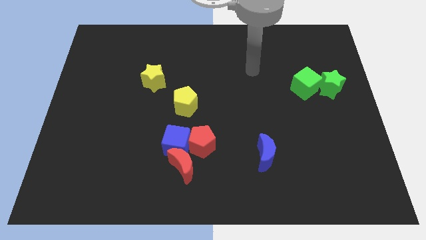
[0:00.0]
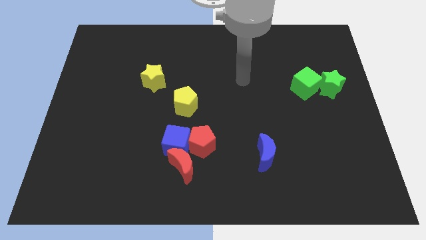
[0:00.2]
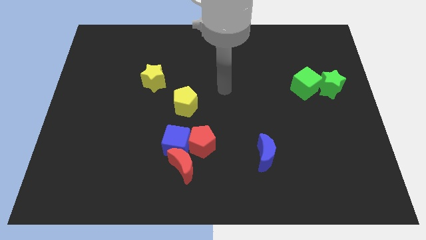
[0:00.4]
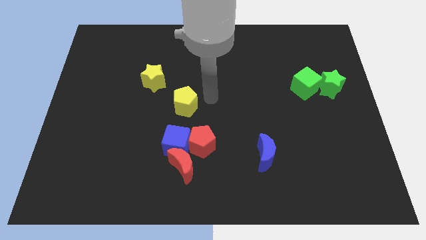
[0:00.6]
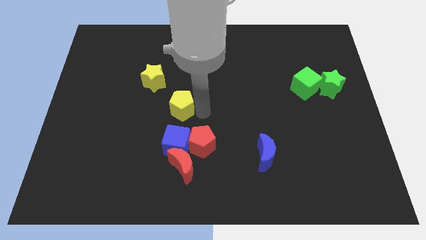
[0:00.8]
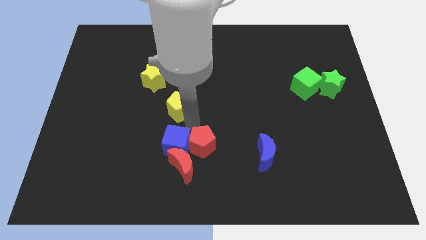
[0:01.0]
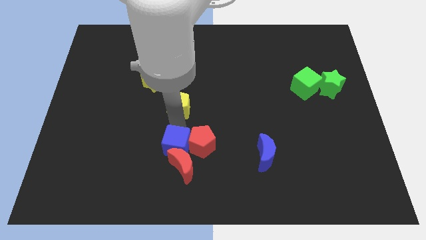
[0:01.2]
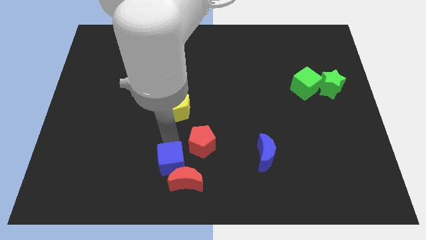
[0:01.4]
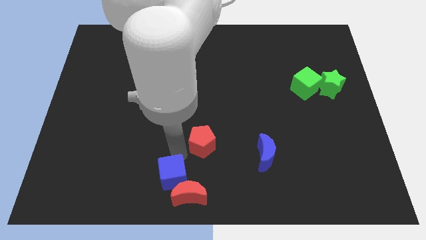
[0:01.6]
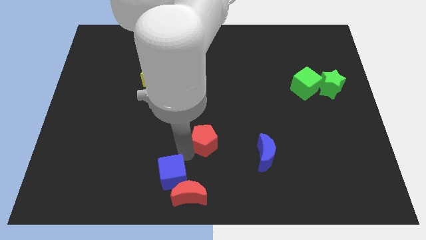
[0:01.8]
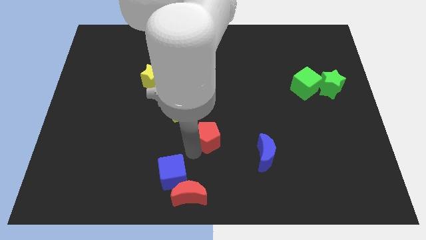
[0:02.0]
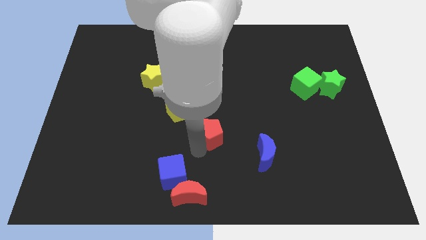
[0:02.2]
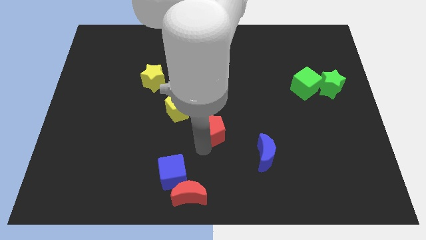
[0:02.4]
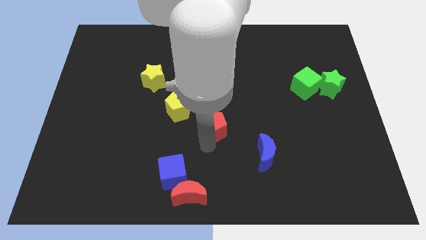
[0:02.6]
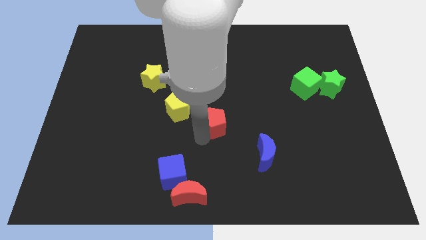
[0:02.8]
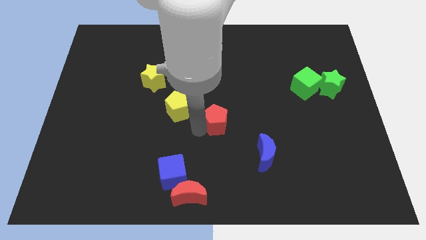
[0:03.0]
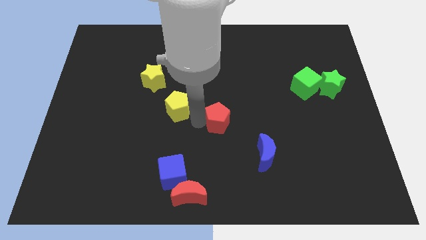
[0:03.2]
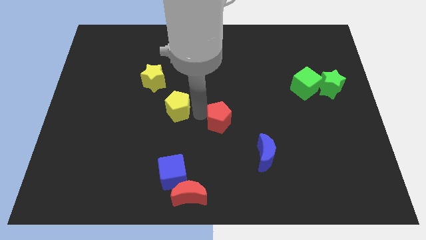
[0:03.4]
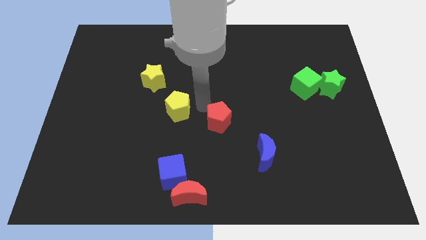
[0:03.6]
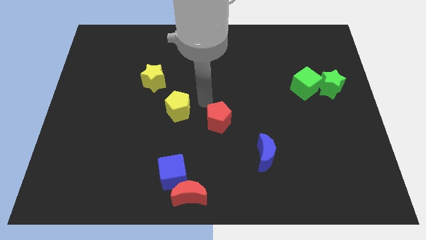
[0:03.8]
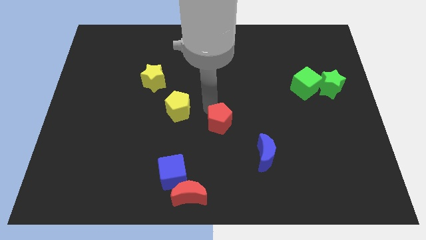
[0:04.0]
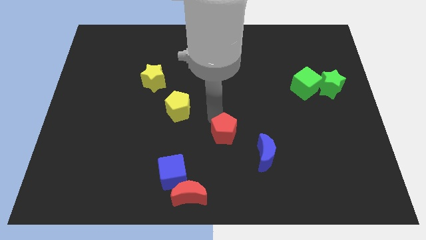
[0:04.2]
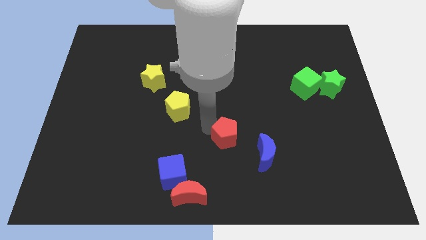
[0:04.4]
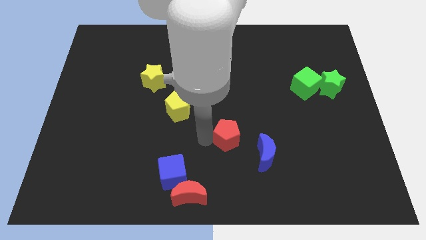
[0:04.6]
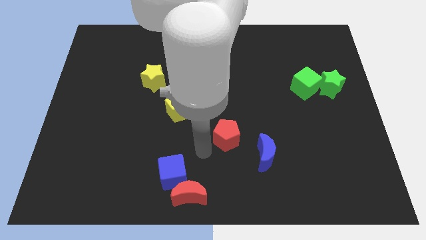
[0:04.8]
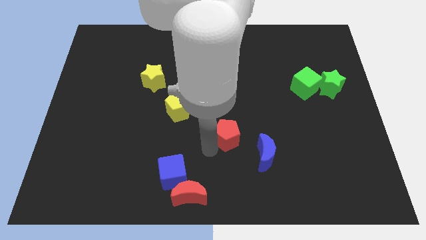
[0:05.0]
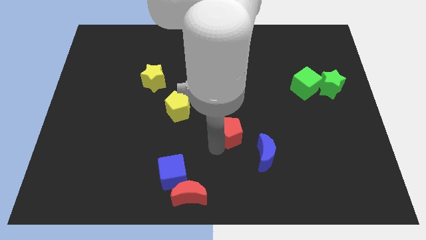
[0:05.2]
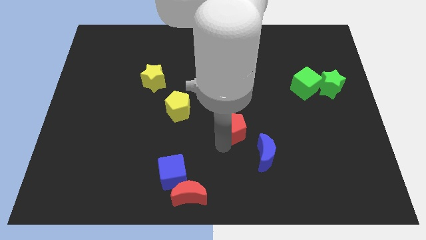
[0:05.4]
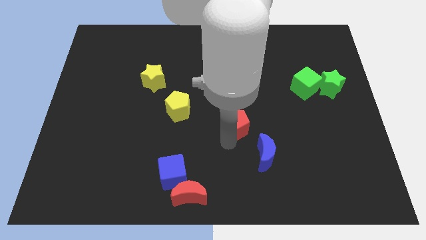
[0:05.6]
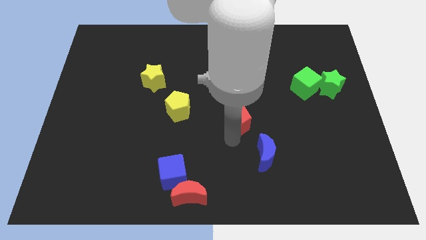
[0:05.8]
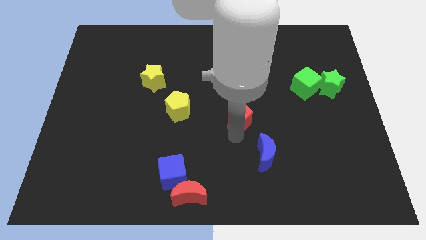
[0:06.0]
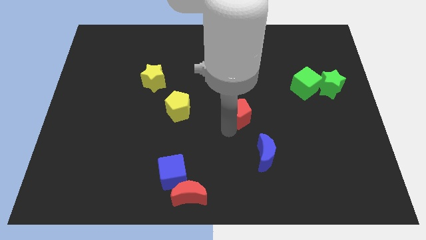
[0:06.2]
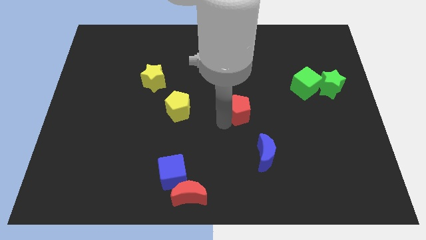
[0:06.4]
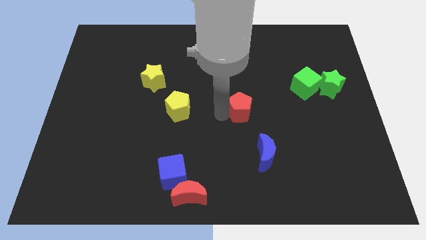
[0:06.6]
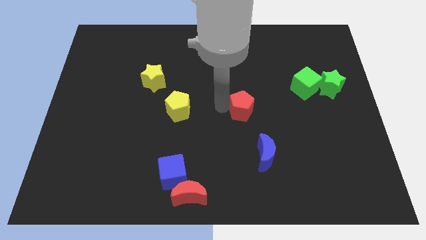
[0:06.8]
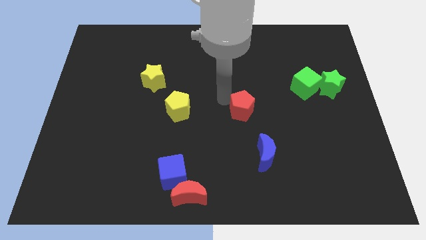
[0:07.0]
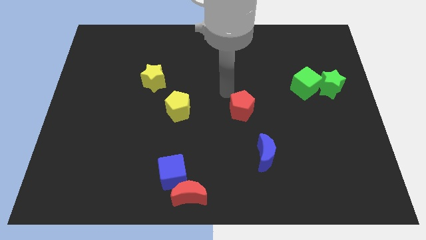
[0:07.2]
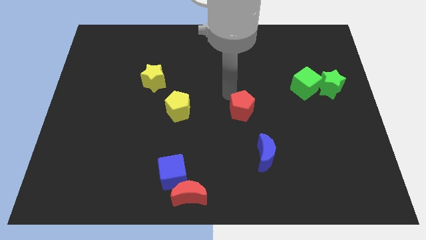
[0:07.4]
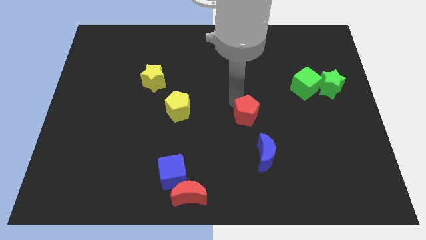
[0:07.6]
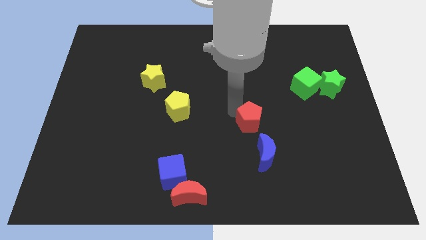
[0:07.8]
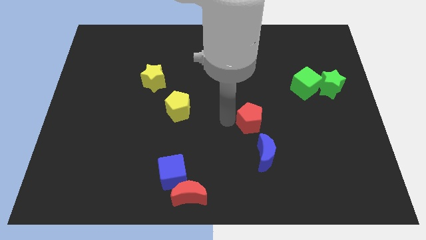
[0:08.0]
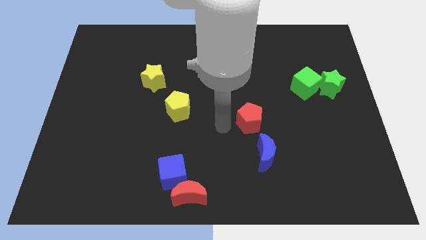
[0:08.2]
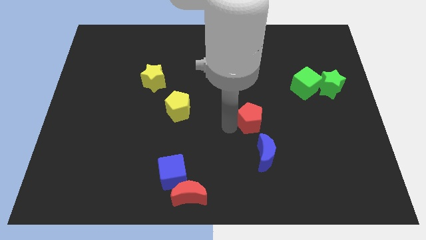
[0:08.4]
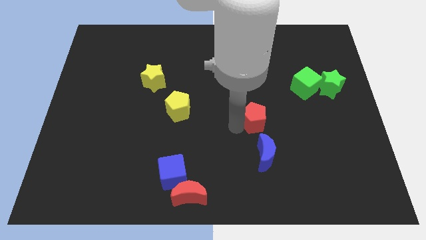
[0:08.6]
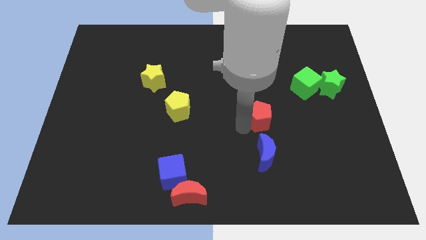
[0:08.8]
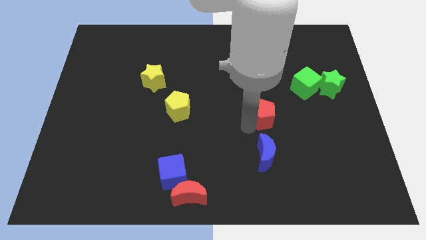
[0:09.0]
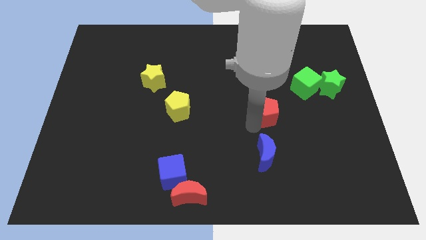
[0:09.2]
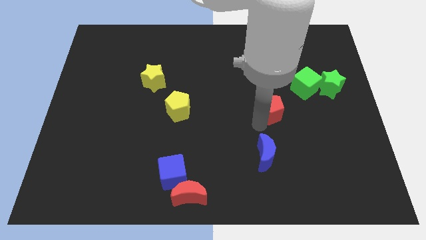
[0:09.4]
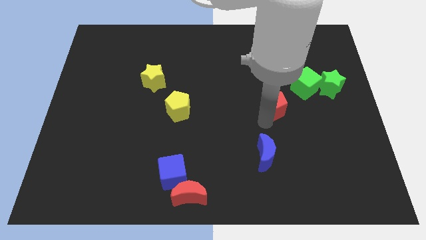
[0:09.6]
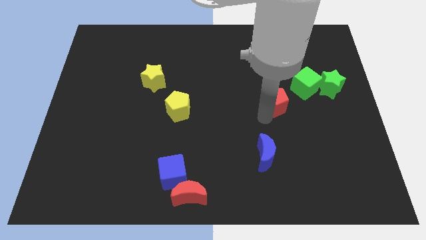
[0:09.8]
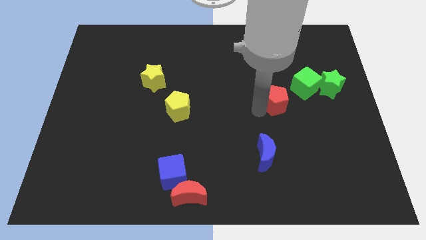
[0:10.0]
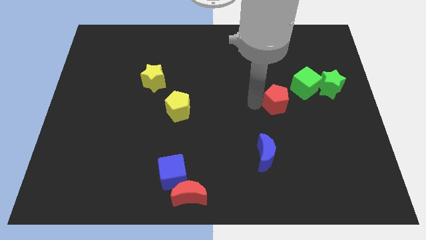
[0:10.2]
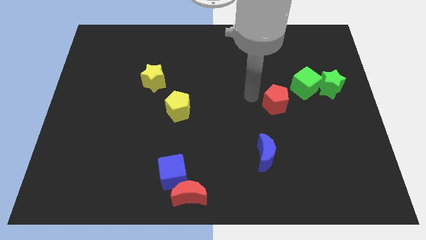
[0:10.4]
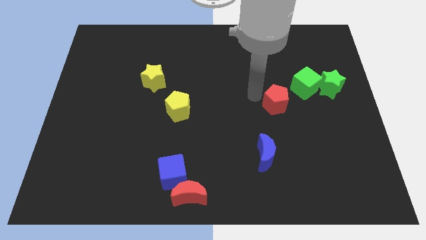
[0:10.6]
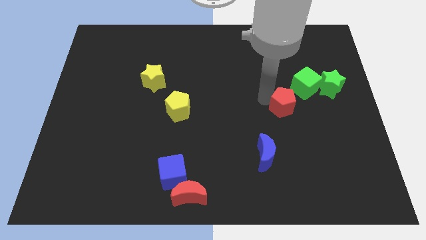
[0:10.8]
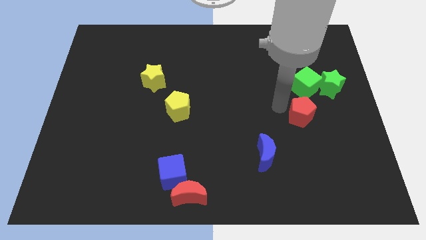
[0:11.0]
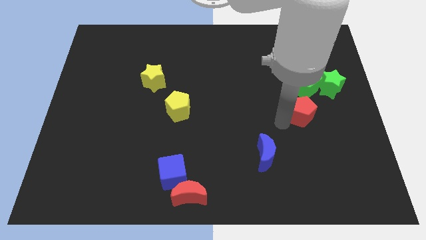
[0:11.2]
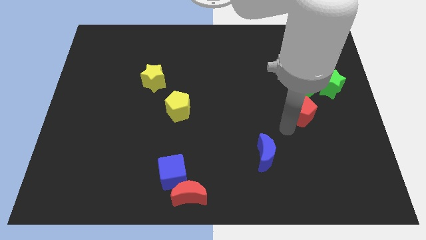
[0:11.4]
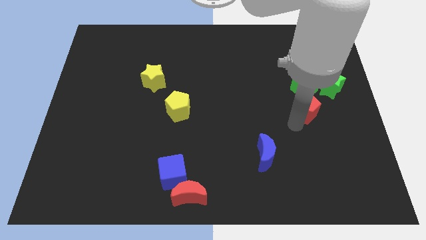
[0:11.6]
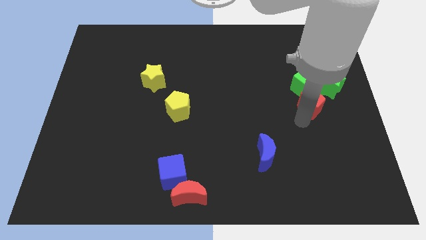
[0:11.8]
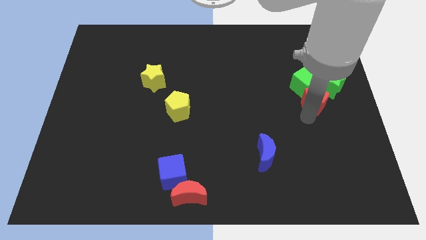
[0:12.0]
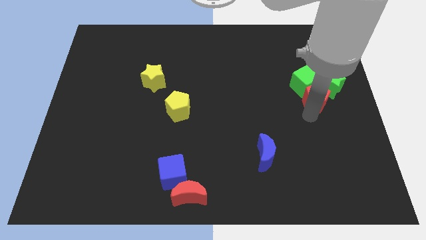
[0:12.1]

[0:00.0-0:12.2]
push the red pentagon close to the green star

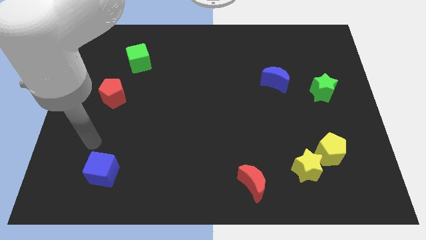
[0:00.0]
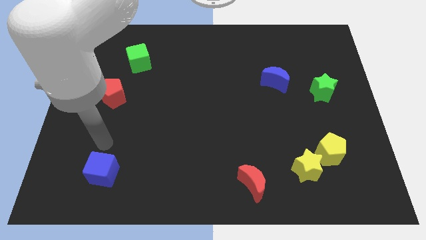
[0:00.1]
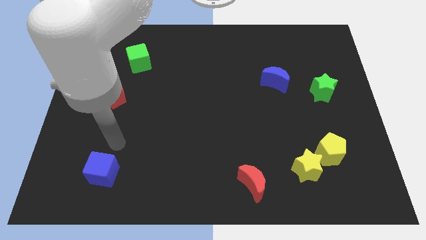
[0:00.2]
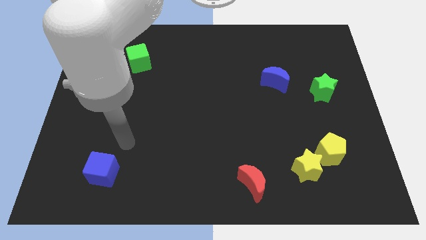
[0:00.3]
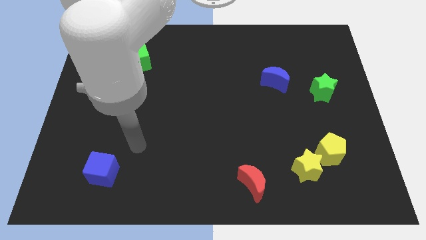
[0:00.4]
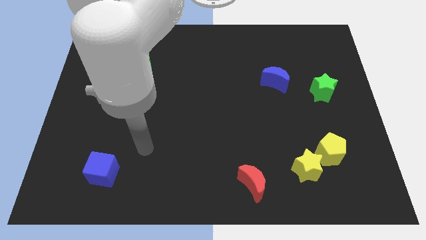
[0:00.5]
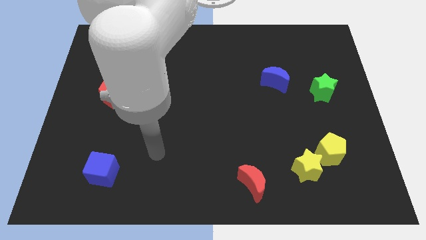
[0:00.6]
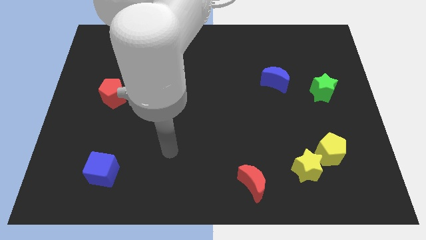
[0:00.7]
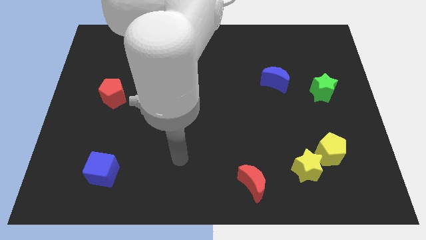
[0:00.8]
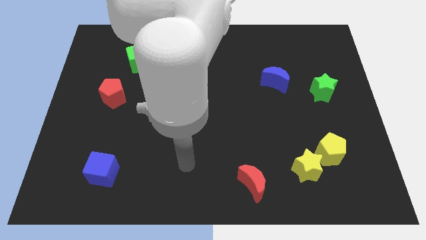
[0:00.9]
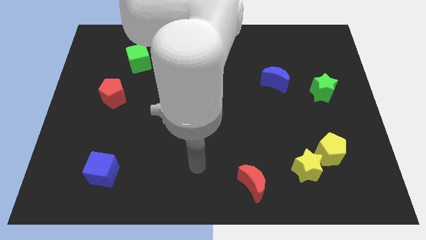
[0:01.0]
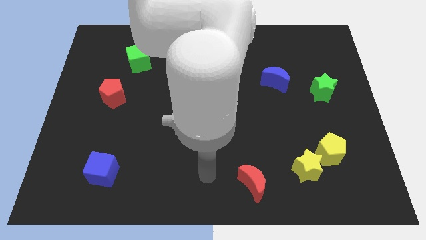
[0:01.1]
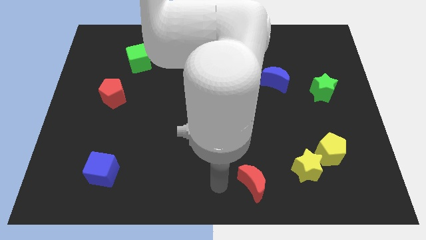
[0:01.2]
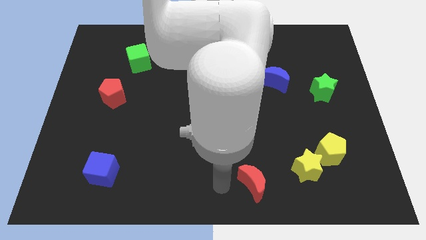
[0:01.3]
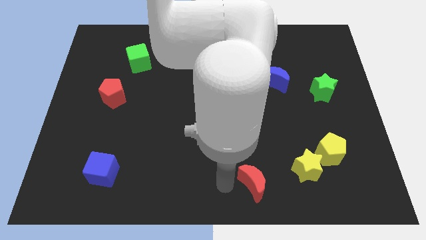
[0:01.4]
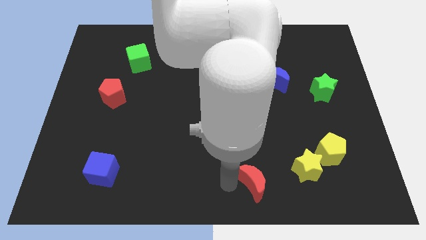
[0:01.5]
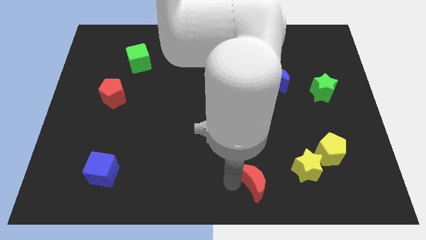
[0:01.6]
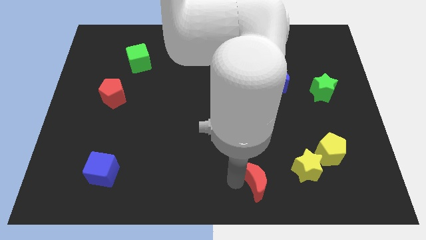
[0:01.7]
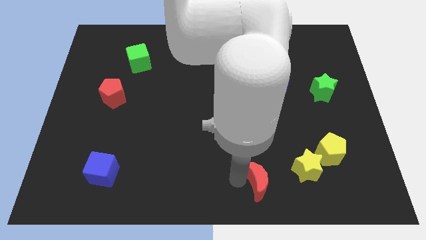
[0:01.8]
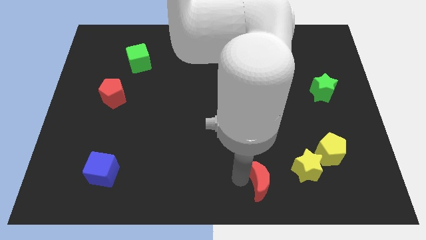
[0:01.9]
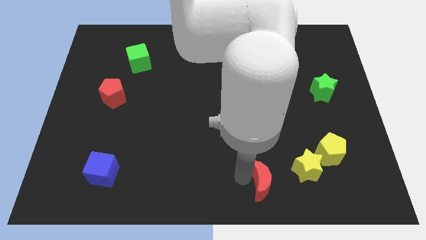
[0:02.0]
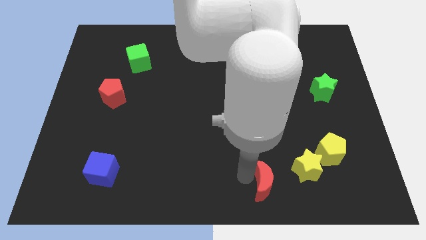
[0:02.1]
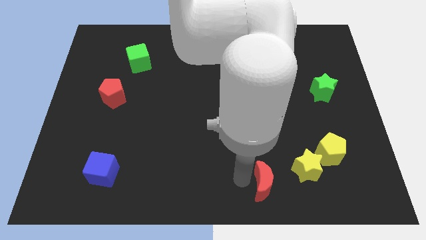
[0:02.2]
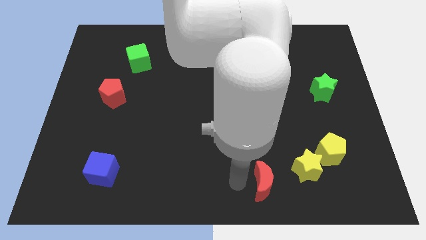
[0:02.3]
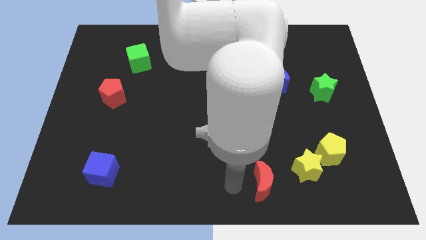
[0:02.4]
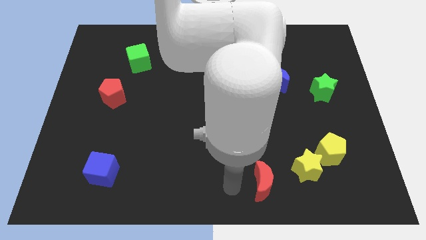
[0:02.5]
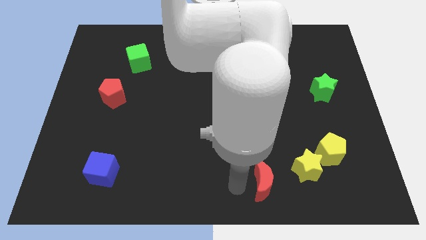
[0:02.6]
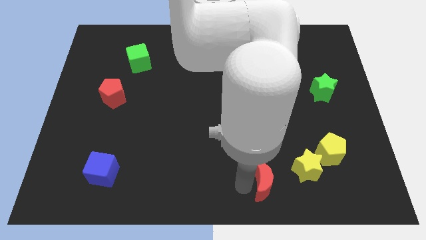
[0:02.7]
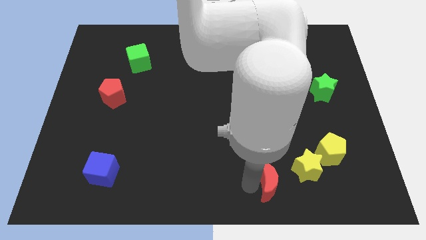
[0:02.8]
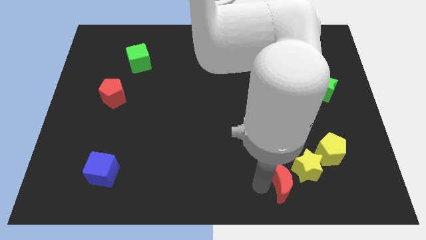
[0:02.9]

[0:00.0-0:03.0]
push the red moon to the yellow star
